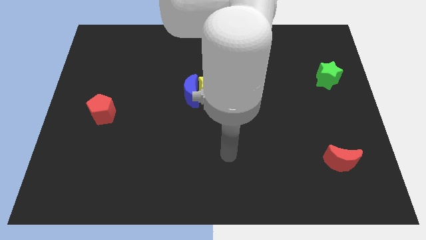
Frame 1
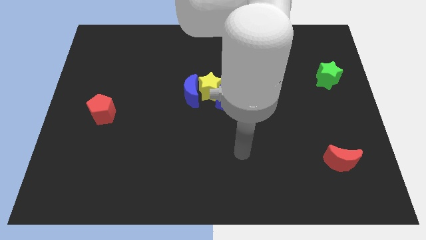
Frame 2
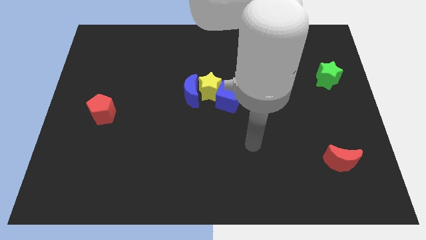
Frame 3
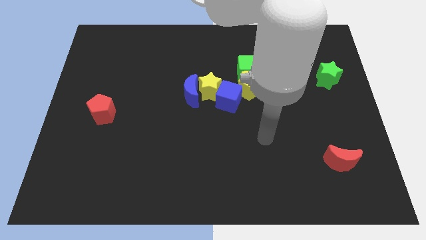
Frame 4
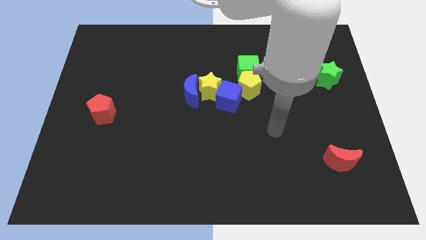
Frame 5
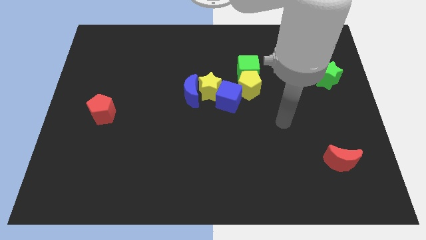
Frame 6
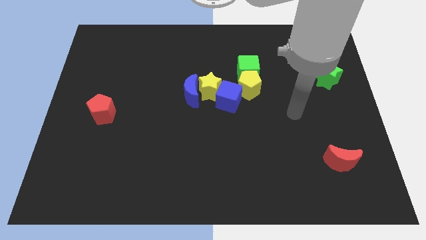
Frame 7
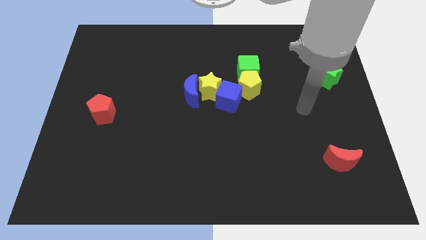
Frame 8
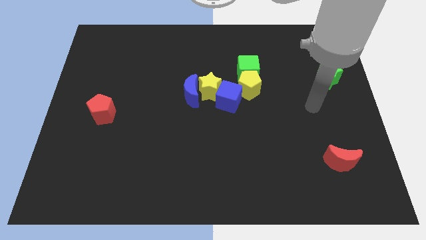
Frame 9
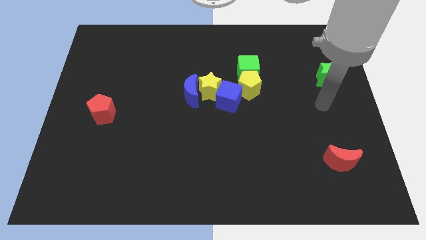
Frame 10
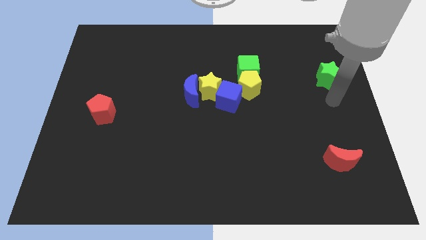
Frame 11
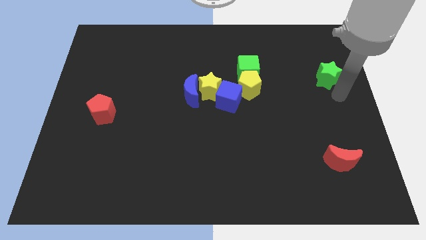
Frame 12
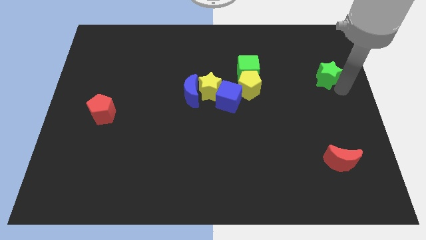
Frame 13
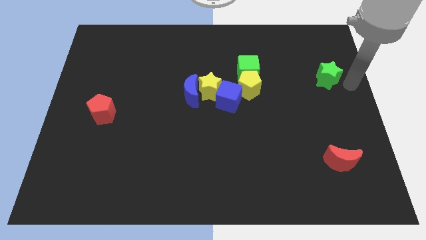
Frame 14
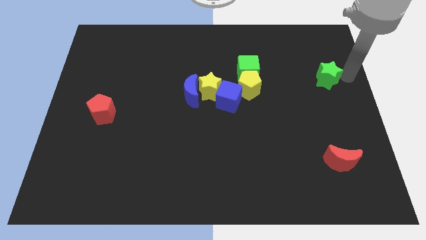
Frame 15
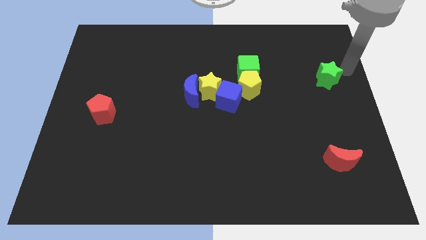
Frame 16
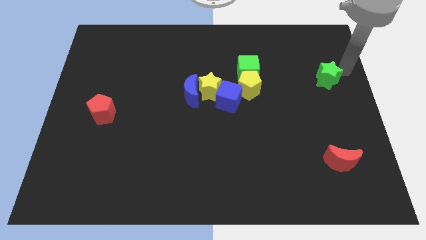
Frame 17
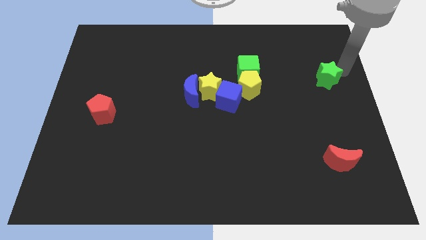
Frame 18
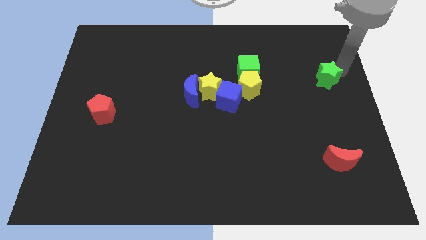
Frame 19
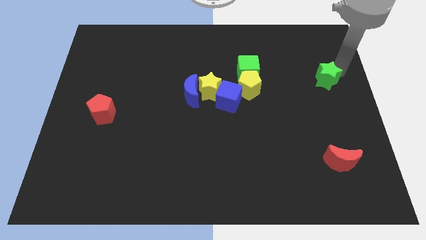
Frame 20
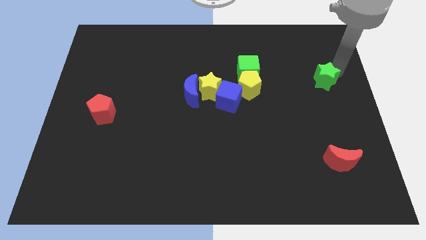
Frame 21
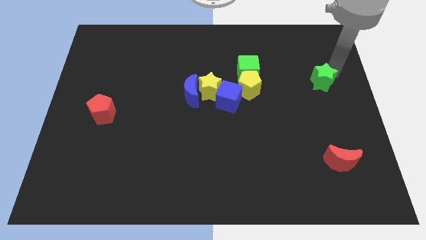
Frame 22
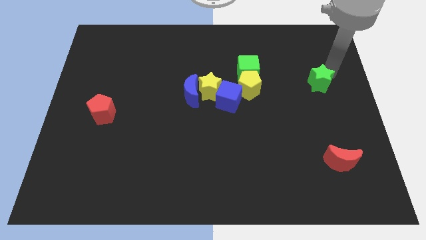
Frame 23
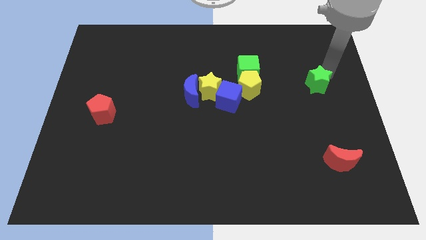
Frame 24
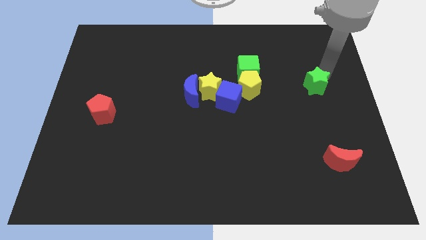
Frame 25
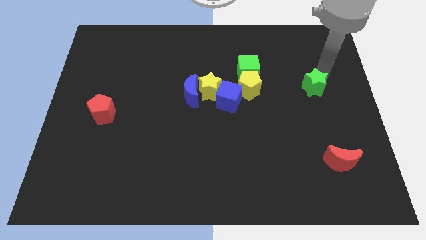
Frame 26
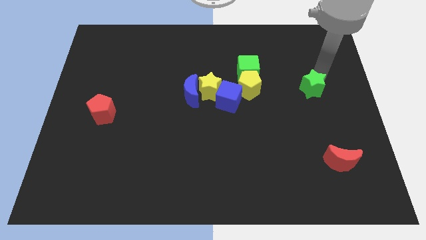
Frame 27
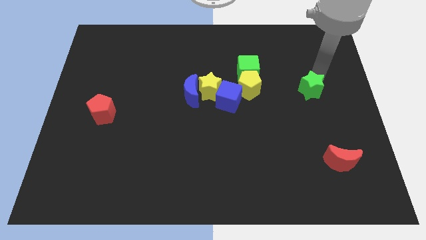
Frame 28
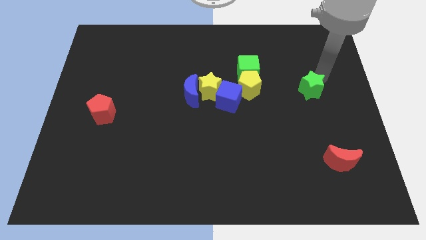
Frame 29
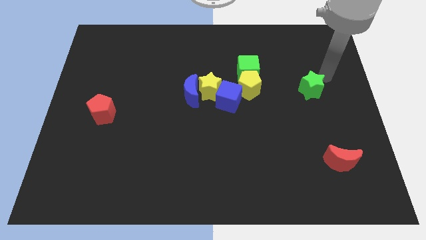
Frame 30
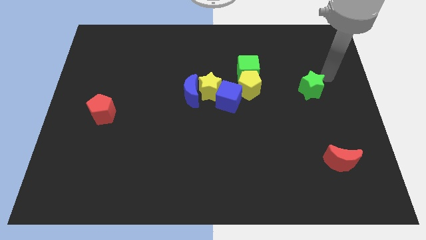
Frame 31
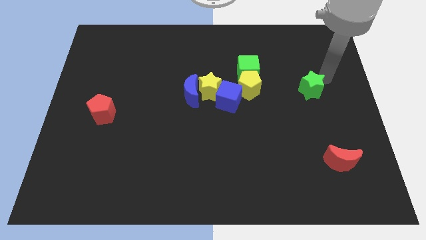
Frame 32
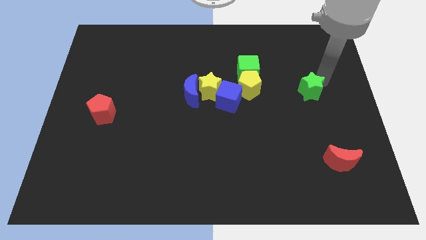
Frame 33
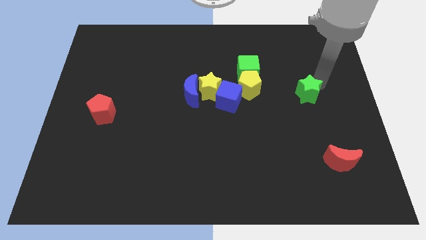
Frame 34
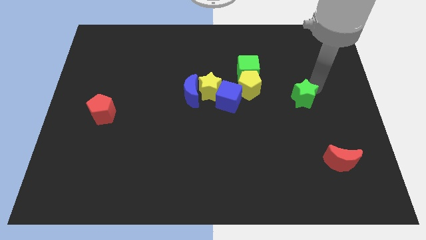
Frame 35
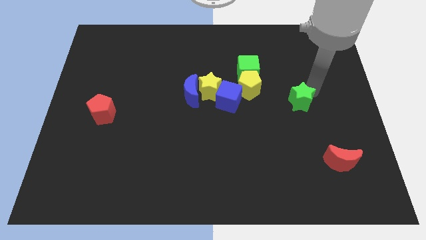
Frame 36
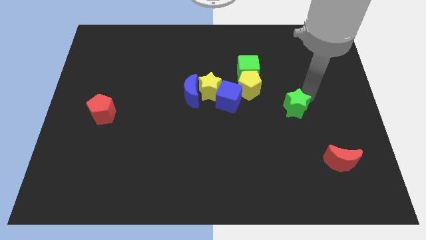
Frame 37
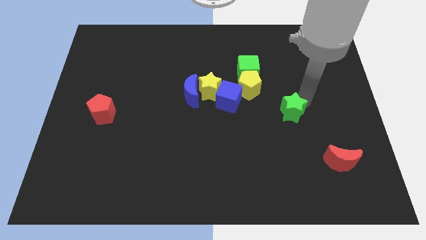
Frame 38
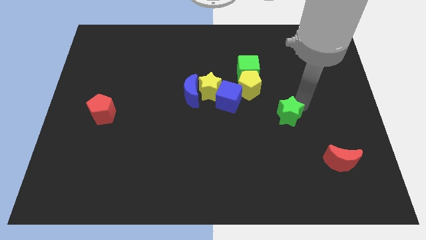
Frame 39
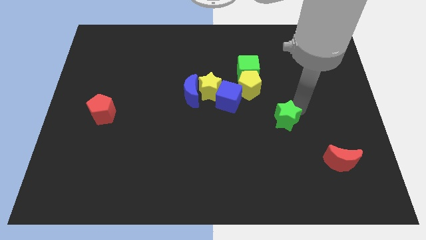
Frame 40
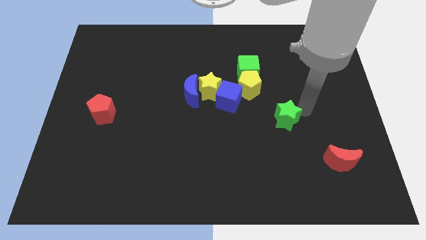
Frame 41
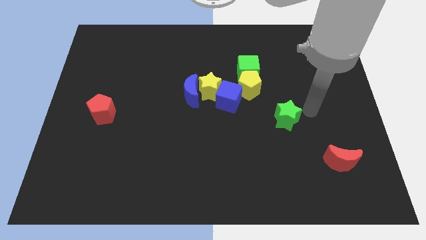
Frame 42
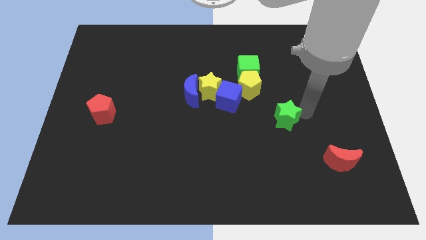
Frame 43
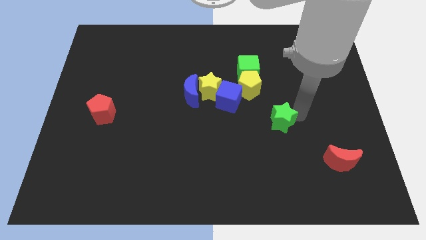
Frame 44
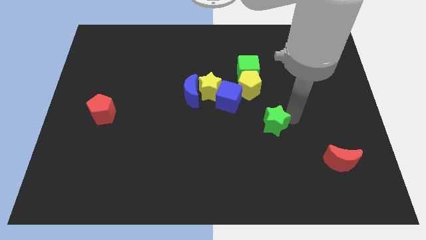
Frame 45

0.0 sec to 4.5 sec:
push the green star diagonally downwards and left

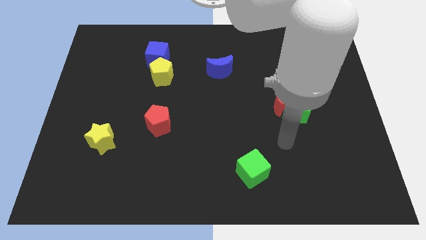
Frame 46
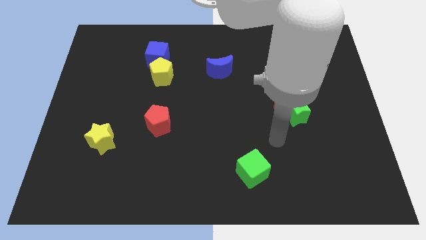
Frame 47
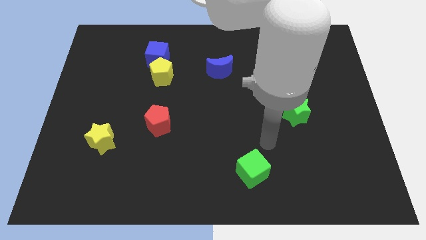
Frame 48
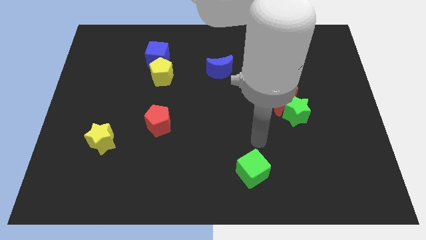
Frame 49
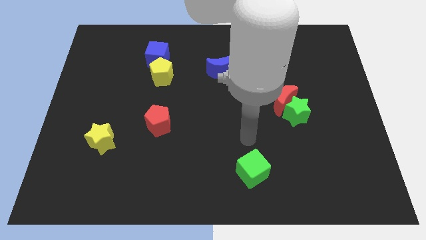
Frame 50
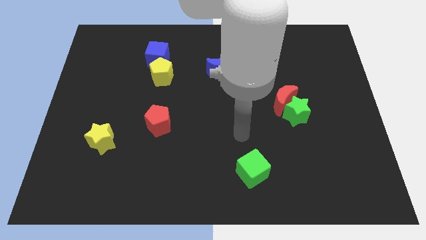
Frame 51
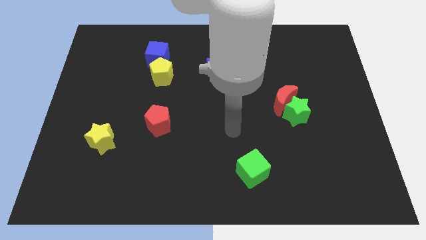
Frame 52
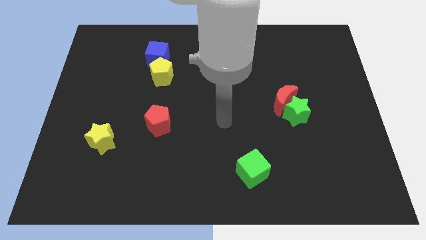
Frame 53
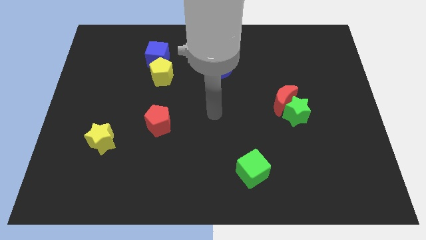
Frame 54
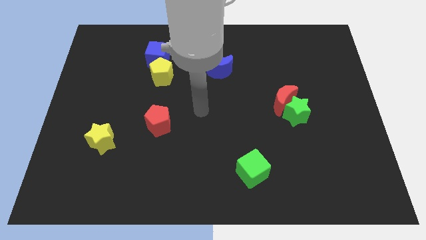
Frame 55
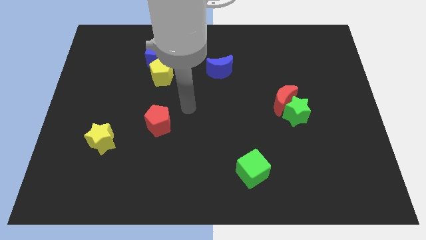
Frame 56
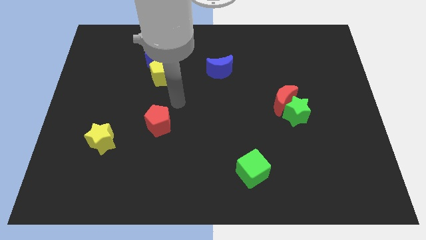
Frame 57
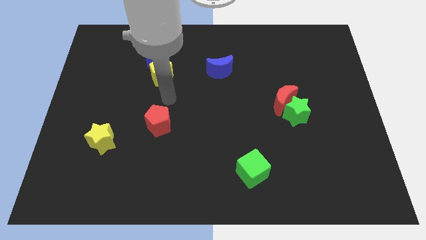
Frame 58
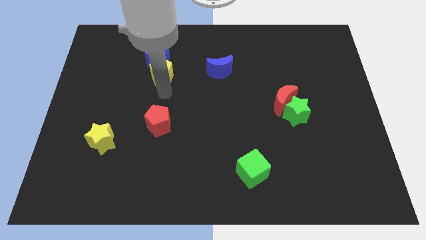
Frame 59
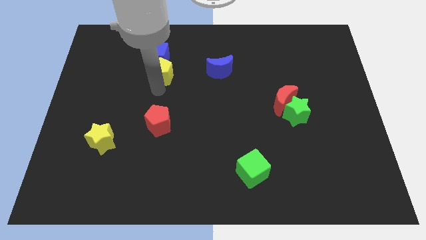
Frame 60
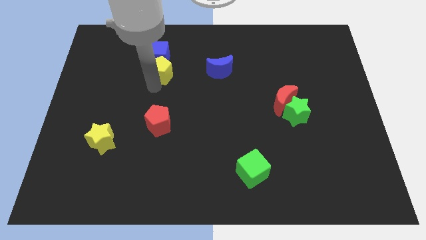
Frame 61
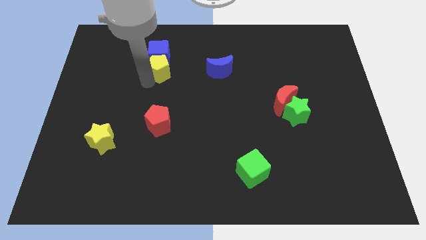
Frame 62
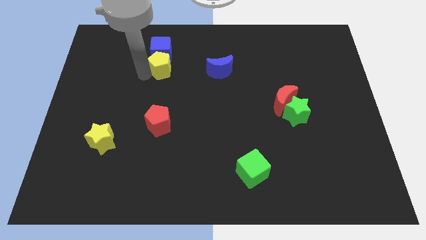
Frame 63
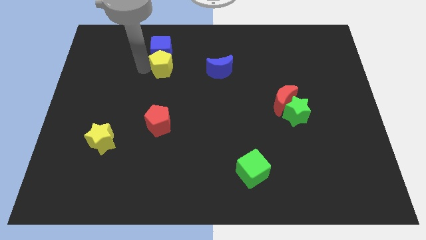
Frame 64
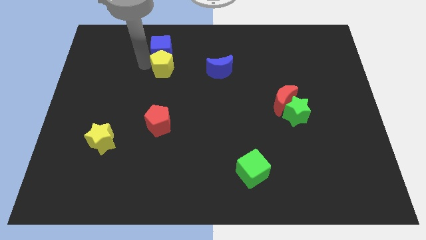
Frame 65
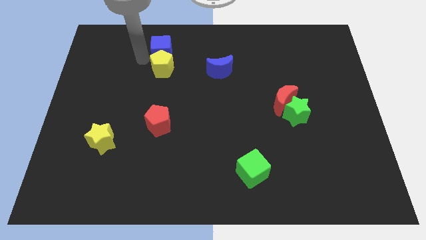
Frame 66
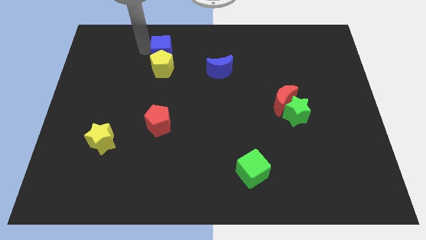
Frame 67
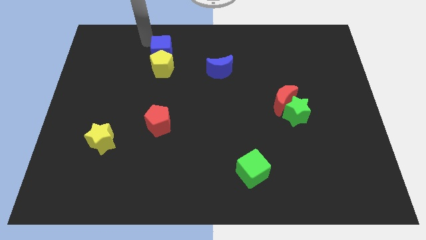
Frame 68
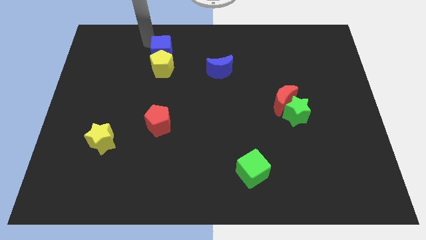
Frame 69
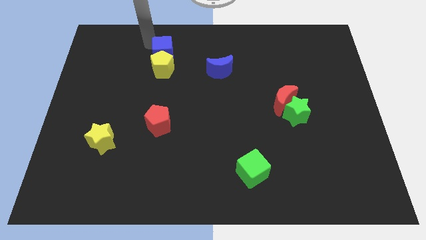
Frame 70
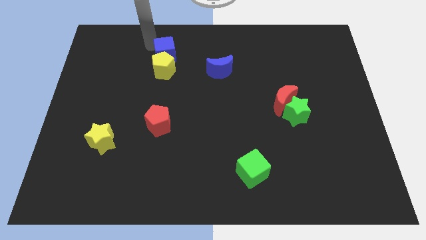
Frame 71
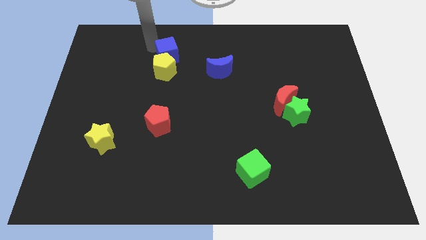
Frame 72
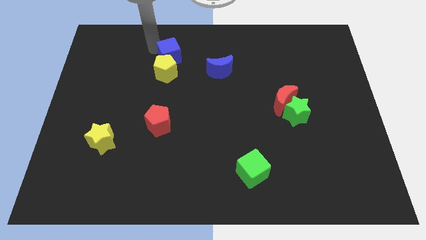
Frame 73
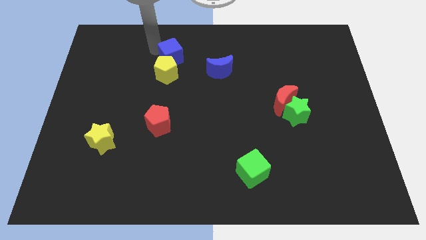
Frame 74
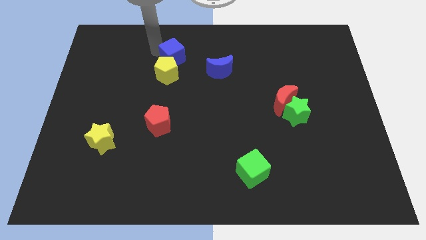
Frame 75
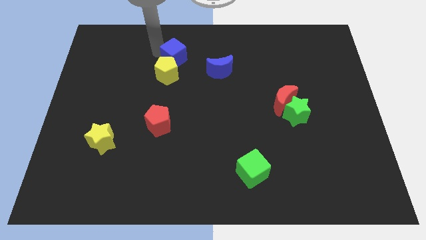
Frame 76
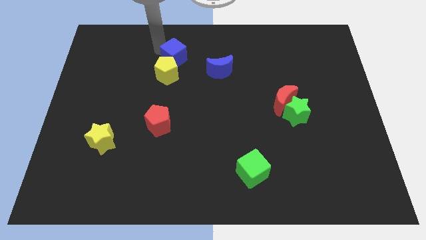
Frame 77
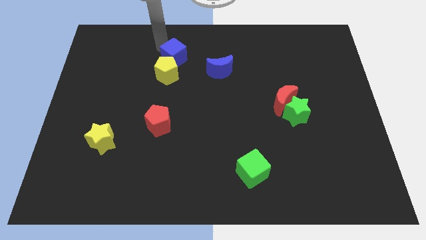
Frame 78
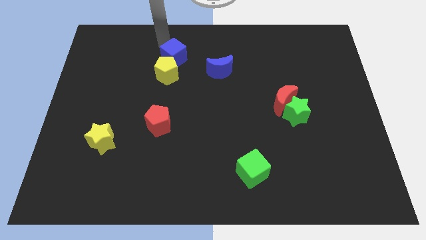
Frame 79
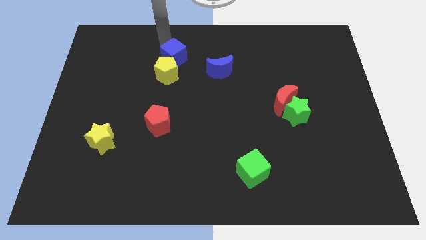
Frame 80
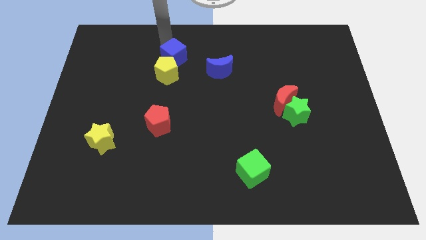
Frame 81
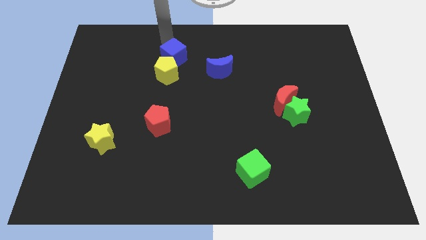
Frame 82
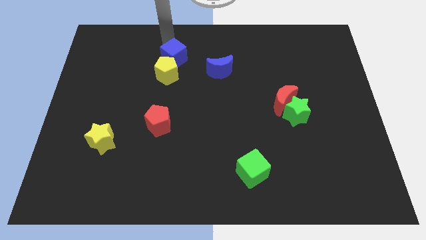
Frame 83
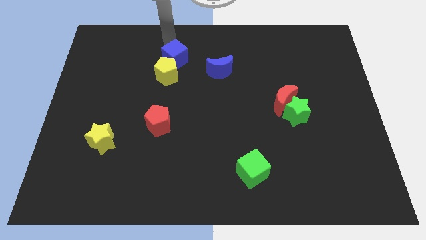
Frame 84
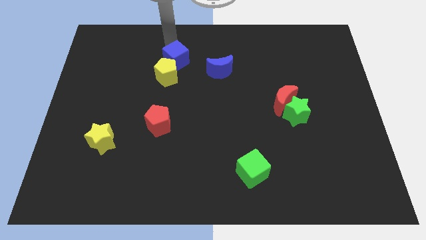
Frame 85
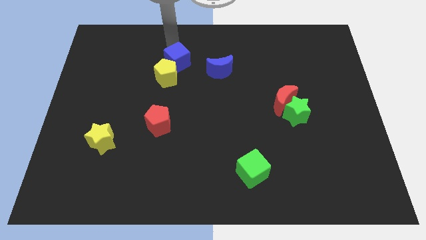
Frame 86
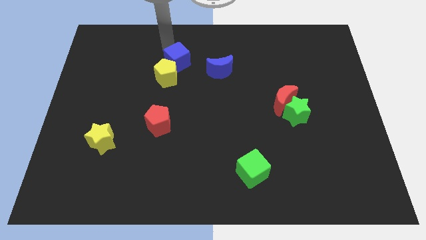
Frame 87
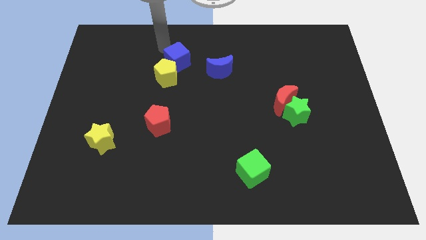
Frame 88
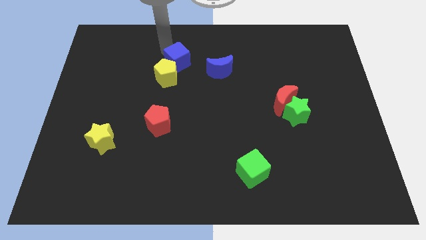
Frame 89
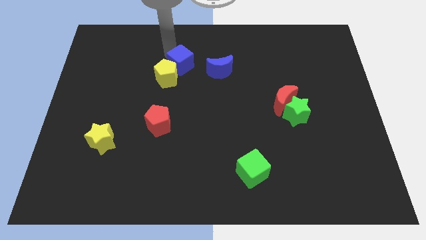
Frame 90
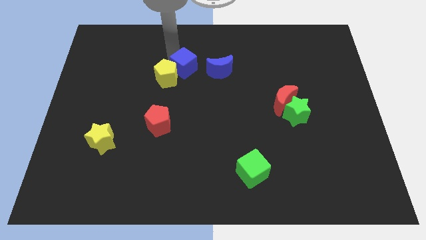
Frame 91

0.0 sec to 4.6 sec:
move the blue cube a little bit diagonally downwards and to the right
